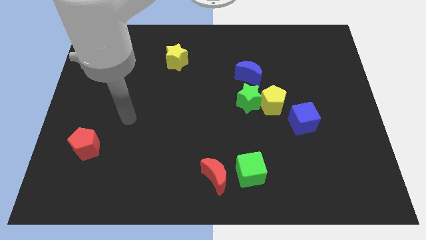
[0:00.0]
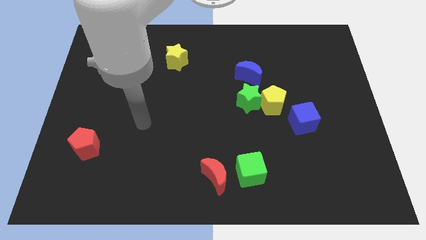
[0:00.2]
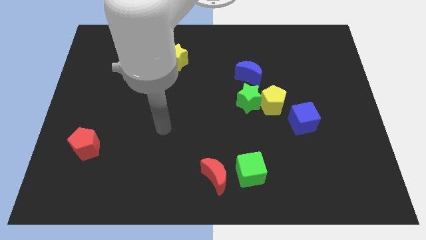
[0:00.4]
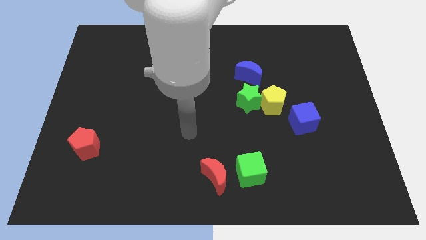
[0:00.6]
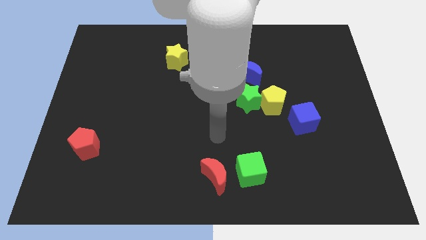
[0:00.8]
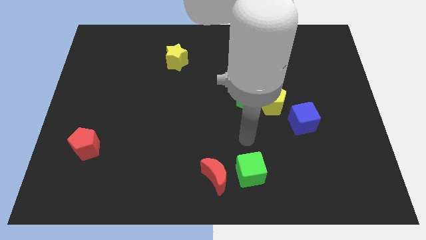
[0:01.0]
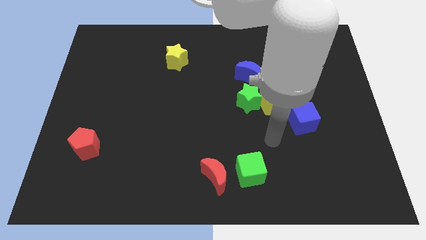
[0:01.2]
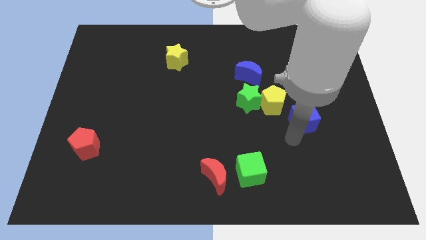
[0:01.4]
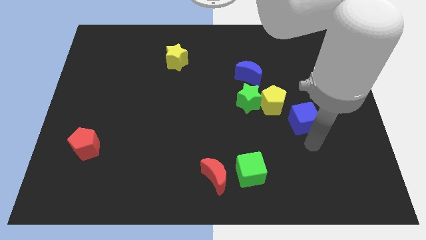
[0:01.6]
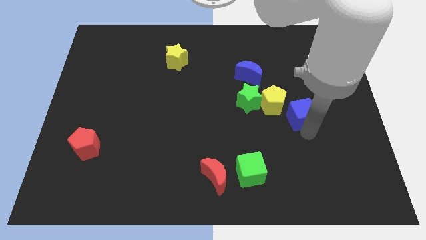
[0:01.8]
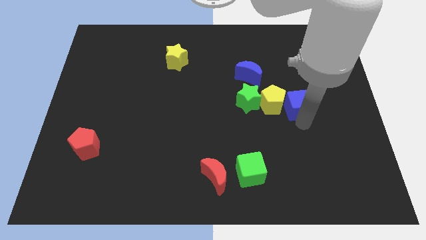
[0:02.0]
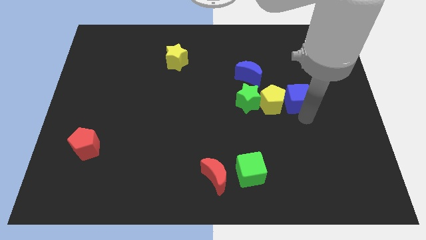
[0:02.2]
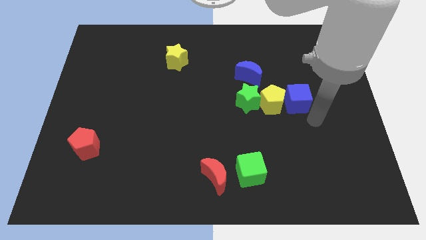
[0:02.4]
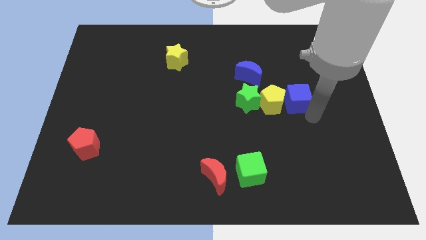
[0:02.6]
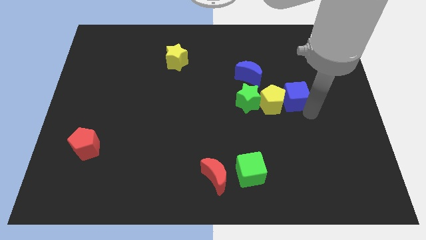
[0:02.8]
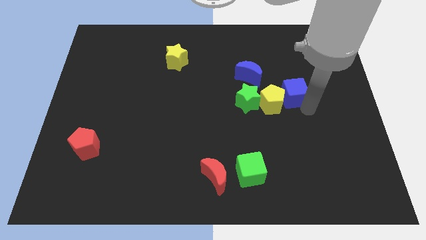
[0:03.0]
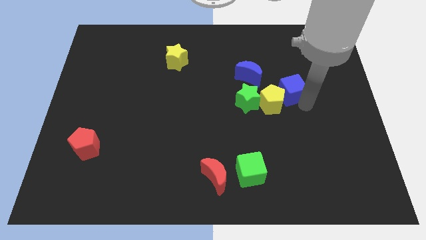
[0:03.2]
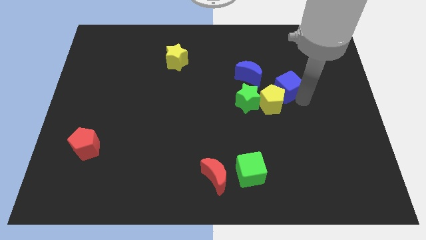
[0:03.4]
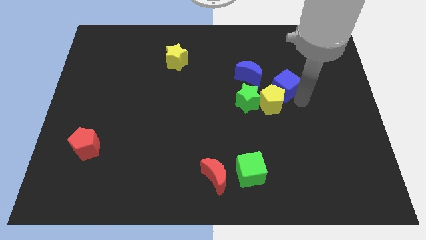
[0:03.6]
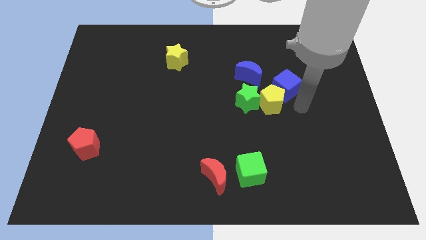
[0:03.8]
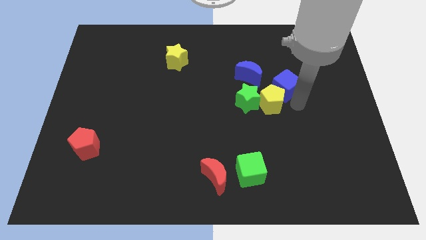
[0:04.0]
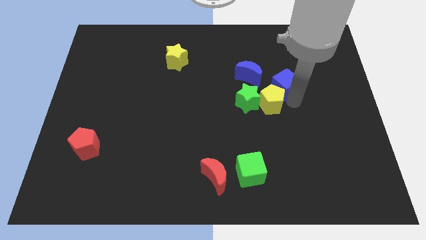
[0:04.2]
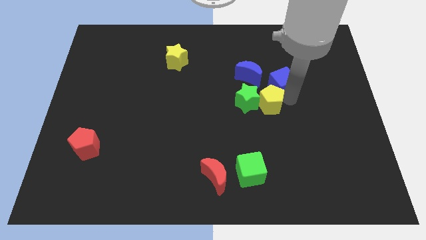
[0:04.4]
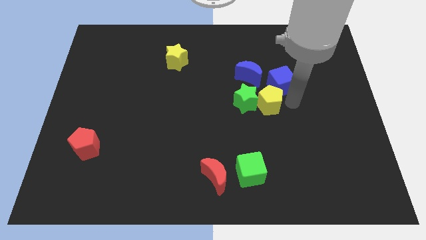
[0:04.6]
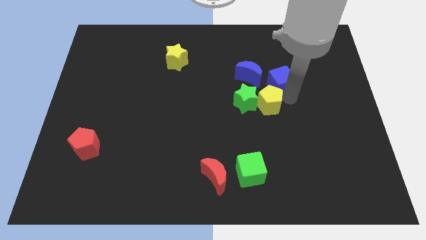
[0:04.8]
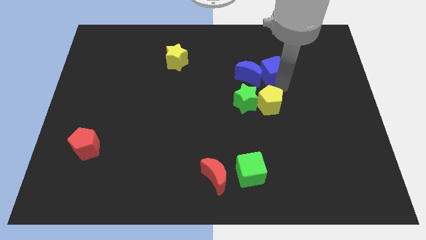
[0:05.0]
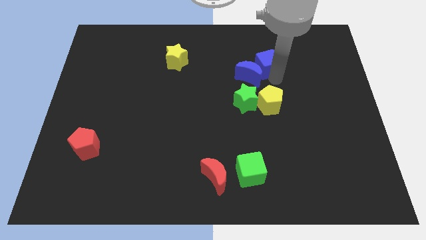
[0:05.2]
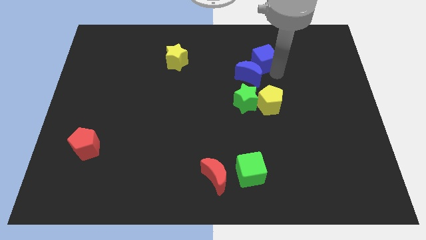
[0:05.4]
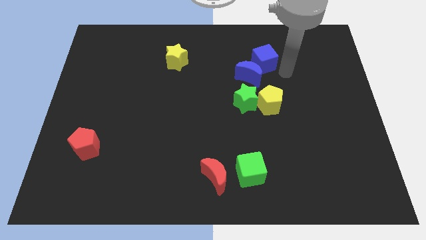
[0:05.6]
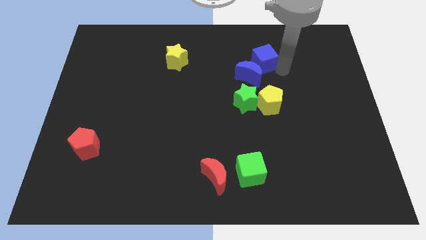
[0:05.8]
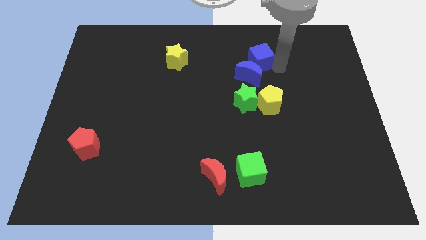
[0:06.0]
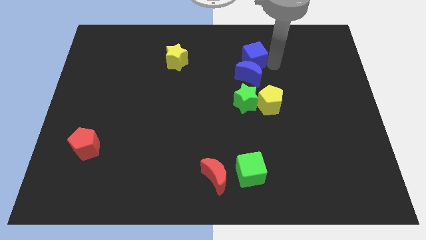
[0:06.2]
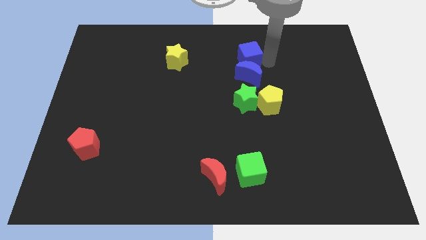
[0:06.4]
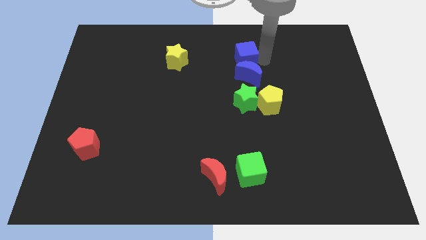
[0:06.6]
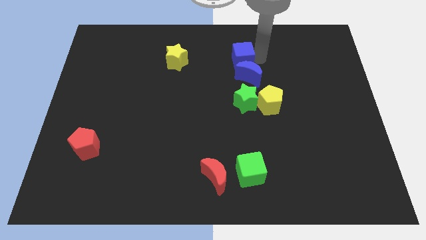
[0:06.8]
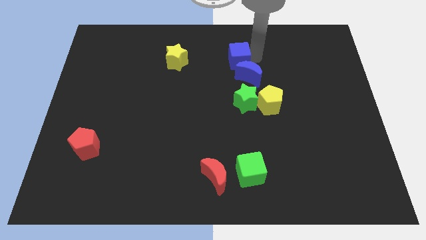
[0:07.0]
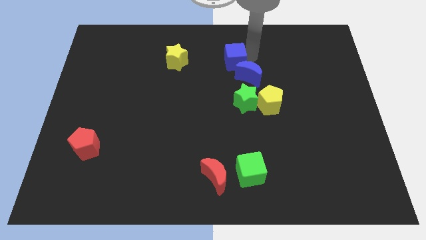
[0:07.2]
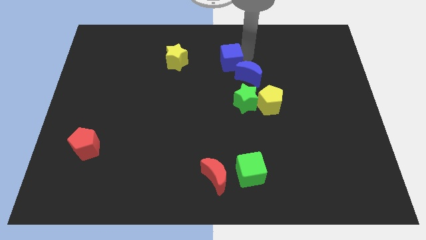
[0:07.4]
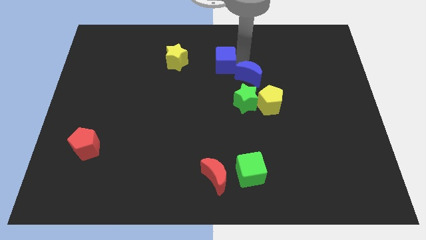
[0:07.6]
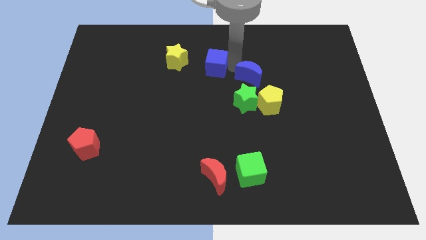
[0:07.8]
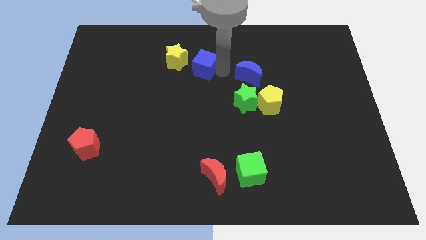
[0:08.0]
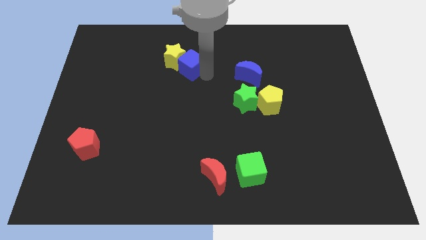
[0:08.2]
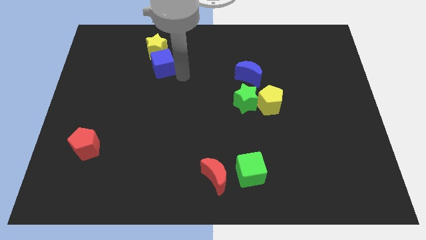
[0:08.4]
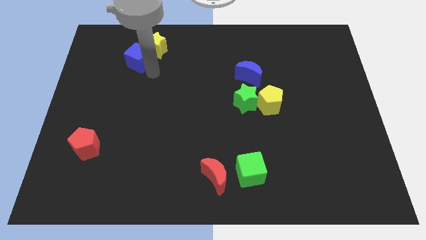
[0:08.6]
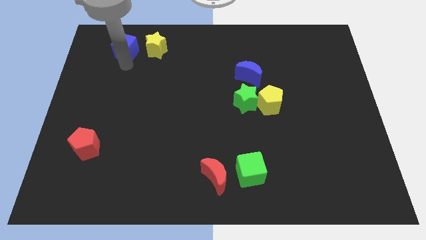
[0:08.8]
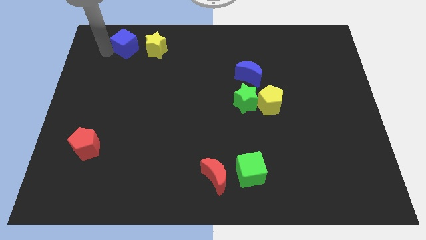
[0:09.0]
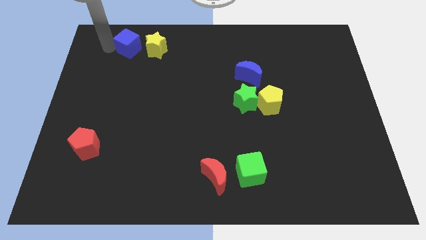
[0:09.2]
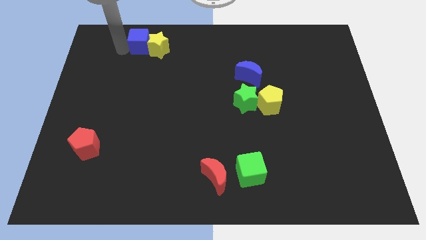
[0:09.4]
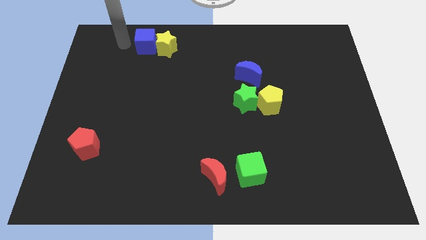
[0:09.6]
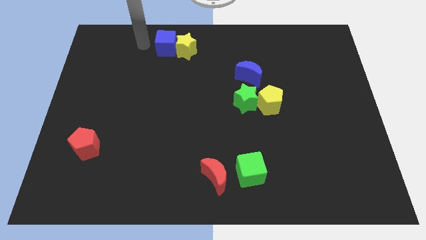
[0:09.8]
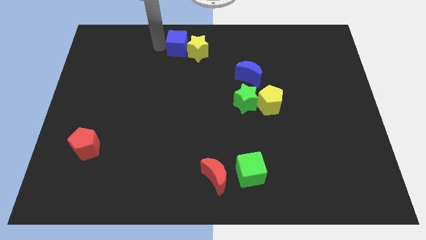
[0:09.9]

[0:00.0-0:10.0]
push the blue cube to the top
